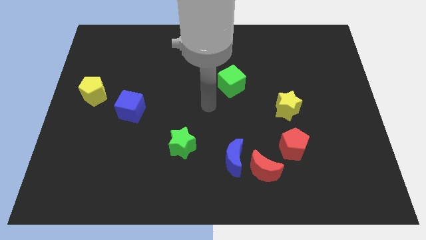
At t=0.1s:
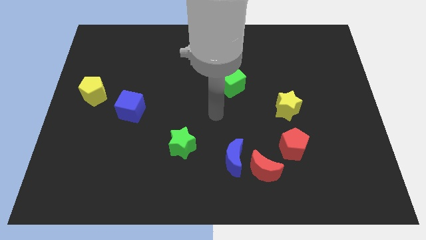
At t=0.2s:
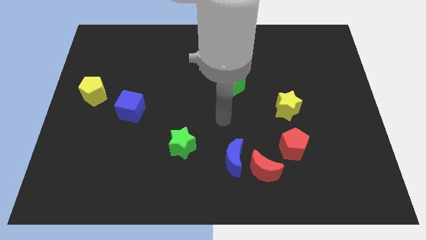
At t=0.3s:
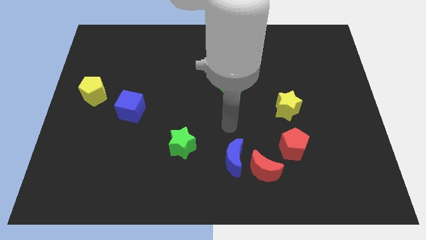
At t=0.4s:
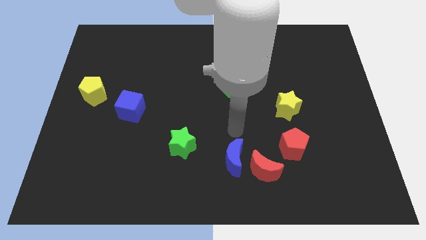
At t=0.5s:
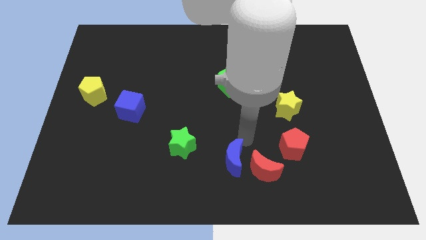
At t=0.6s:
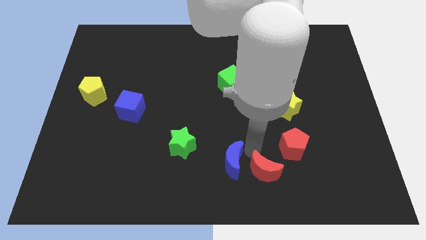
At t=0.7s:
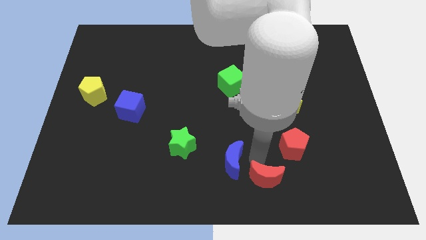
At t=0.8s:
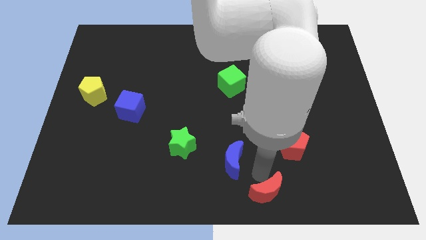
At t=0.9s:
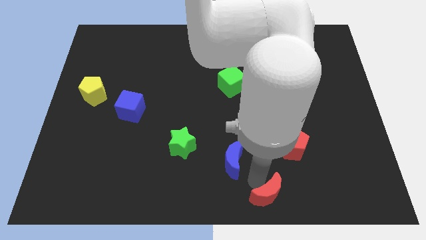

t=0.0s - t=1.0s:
move the blue moon away from the red moon

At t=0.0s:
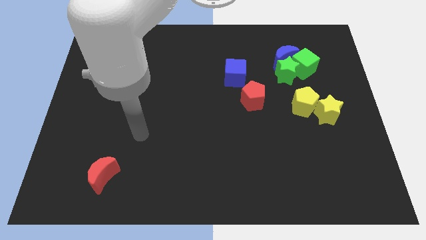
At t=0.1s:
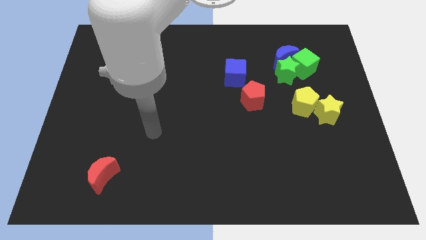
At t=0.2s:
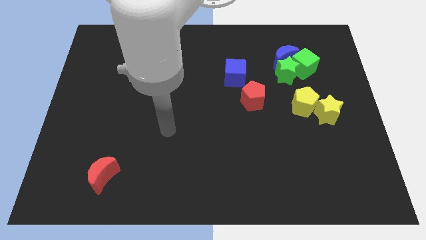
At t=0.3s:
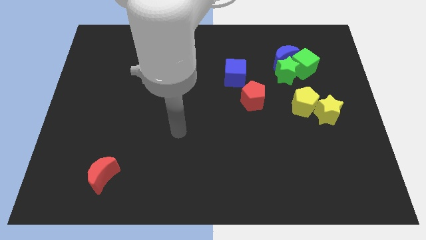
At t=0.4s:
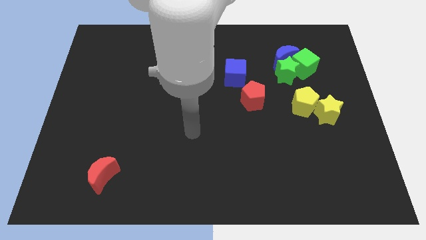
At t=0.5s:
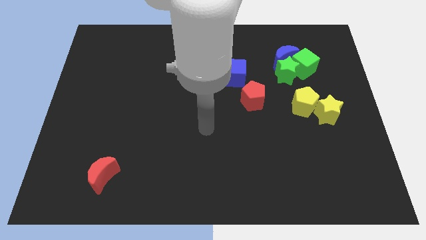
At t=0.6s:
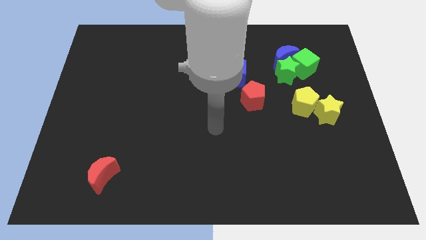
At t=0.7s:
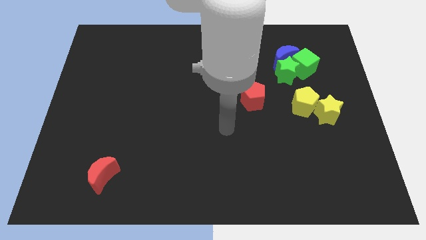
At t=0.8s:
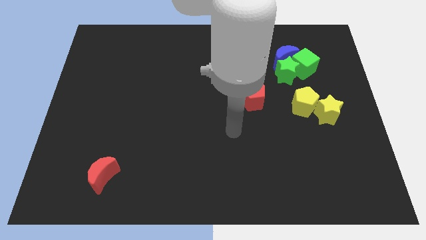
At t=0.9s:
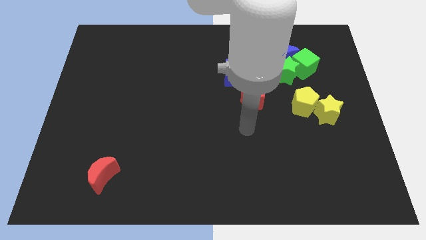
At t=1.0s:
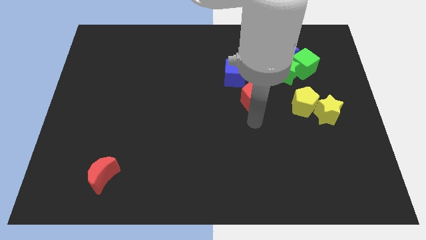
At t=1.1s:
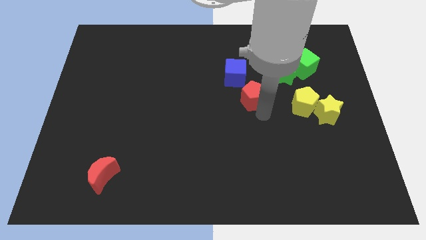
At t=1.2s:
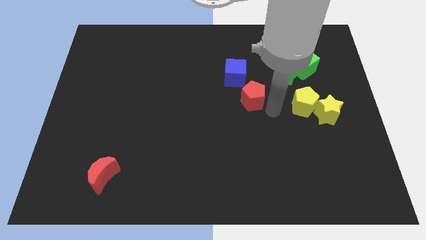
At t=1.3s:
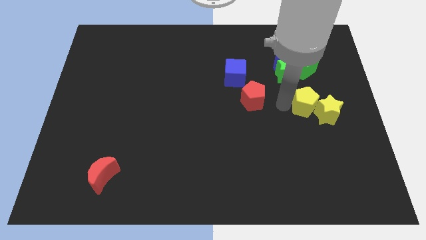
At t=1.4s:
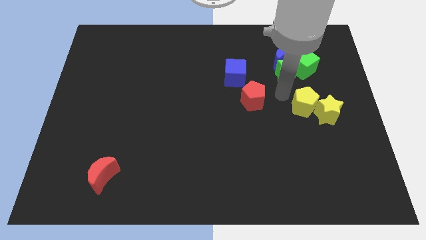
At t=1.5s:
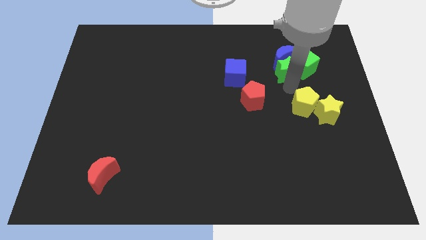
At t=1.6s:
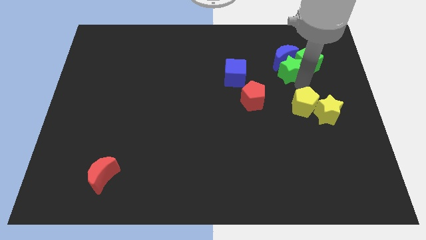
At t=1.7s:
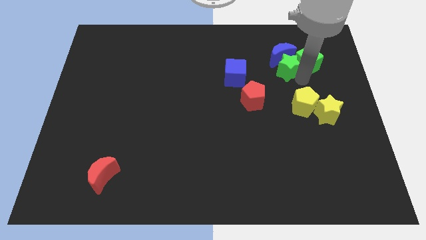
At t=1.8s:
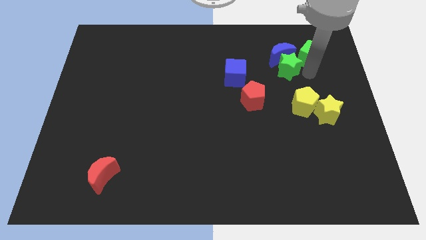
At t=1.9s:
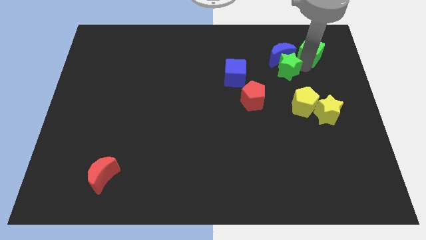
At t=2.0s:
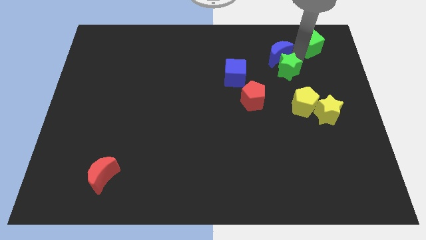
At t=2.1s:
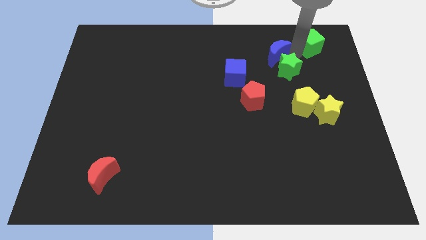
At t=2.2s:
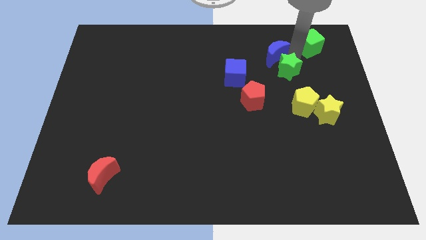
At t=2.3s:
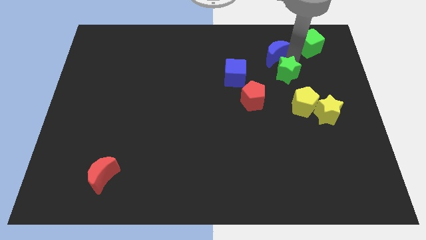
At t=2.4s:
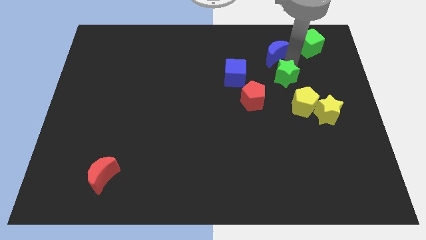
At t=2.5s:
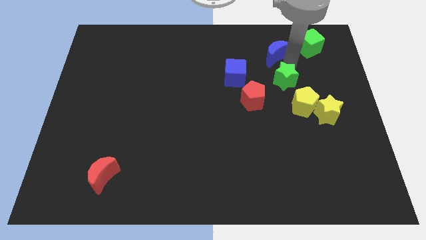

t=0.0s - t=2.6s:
pull the green star apart from the blue moon and green cube

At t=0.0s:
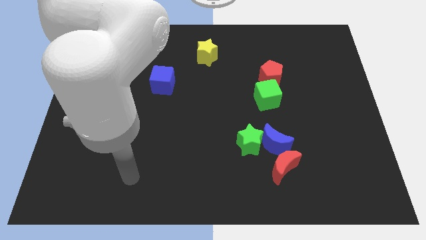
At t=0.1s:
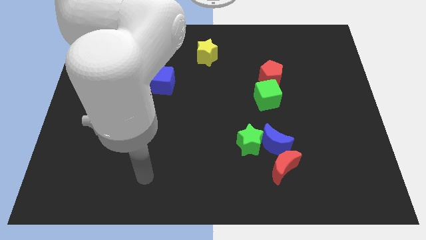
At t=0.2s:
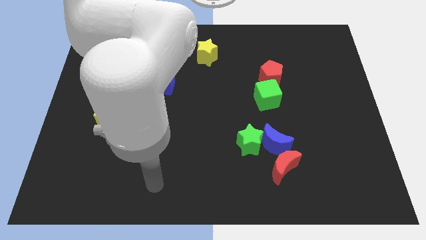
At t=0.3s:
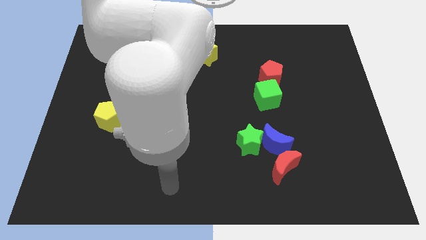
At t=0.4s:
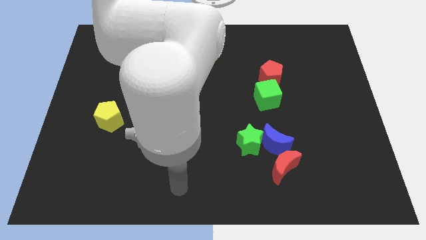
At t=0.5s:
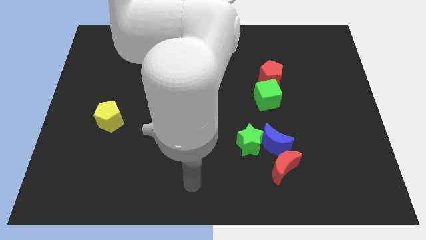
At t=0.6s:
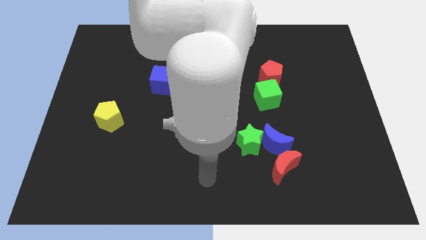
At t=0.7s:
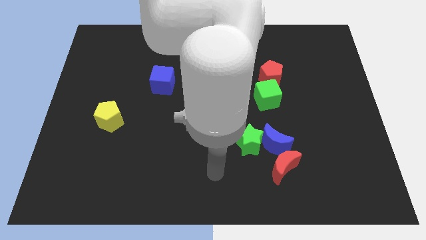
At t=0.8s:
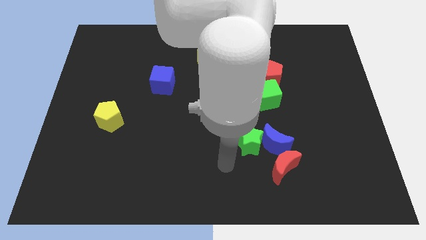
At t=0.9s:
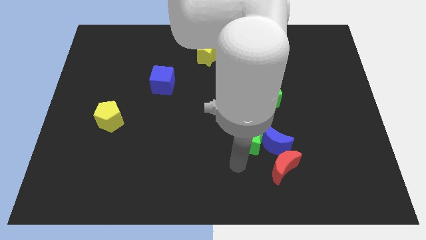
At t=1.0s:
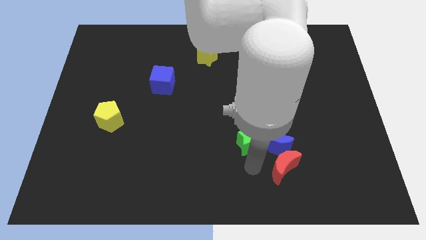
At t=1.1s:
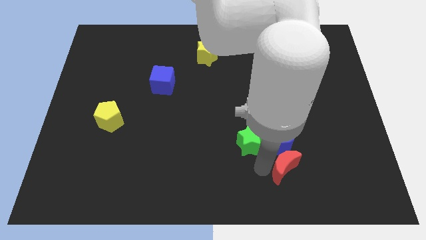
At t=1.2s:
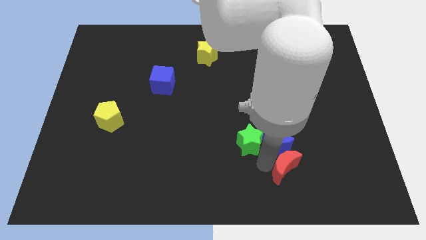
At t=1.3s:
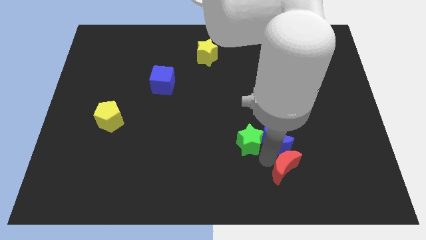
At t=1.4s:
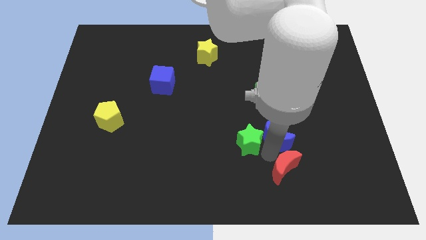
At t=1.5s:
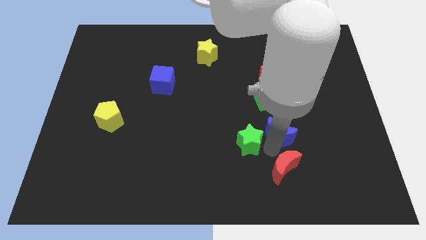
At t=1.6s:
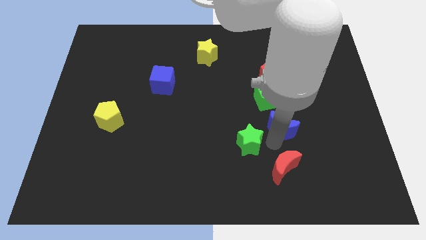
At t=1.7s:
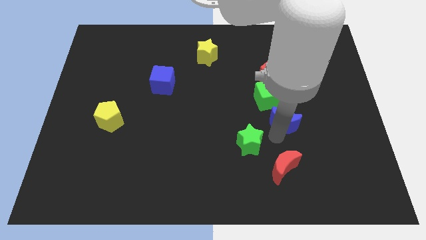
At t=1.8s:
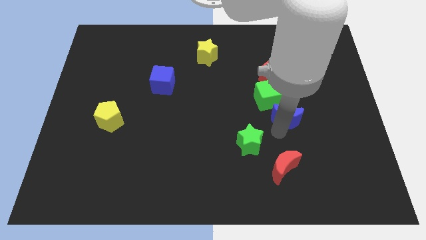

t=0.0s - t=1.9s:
separate the blue moon from the green star and red moon

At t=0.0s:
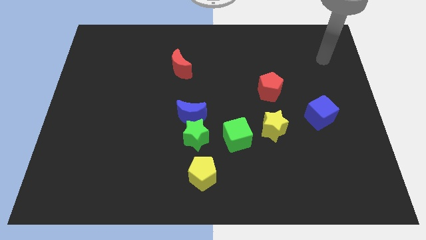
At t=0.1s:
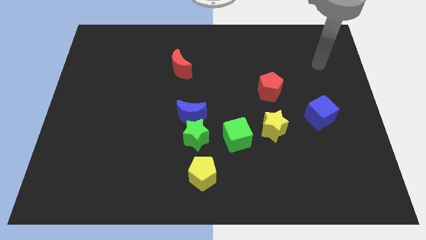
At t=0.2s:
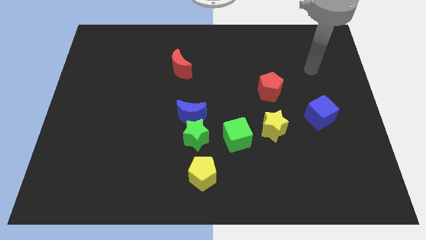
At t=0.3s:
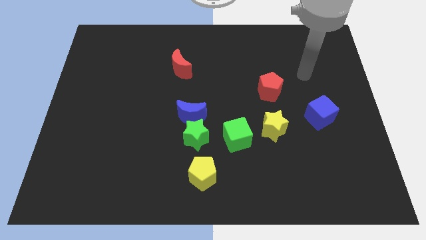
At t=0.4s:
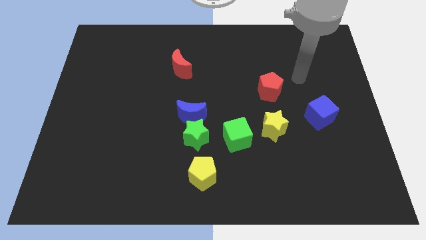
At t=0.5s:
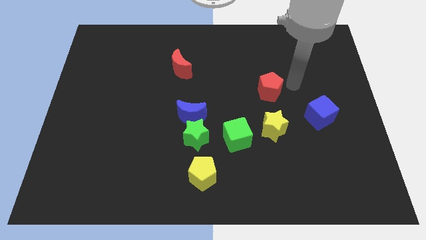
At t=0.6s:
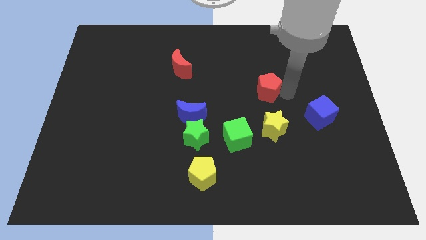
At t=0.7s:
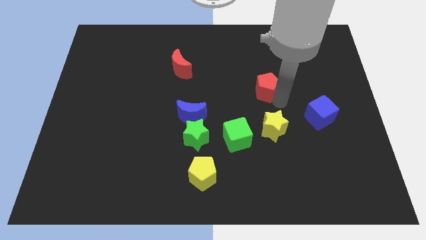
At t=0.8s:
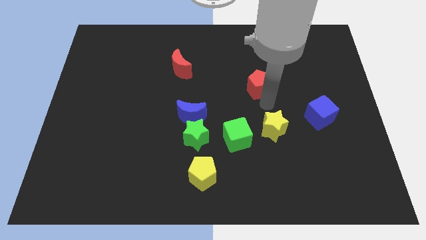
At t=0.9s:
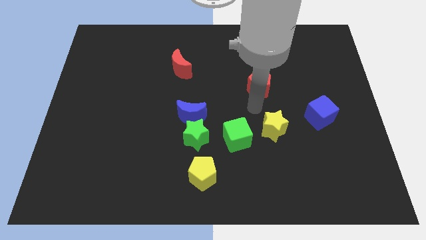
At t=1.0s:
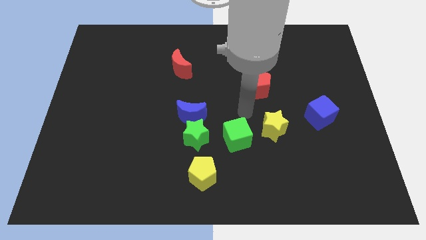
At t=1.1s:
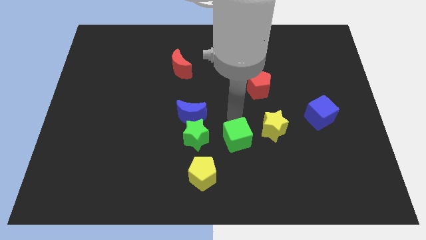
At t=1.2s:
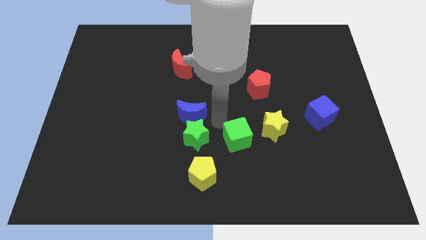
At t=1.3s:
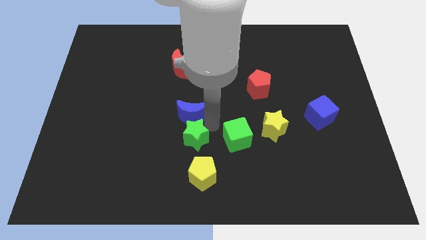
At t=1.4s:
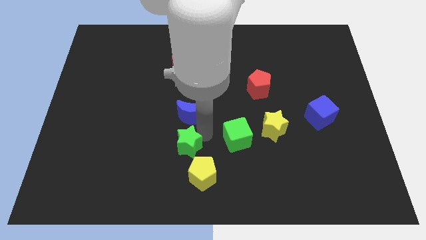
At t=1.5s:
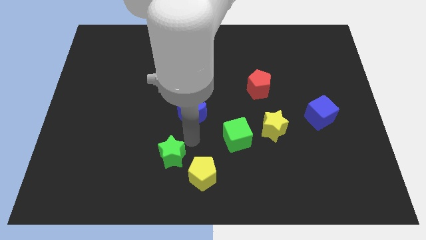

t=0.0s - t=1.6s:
move the blue moon away from the green star

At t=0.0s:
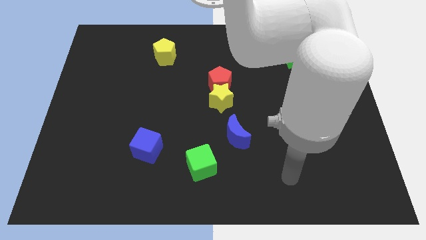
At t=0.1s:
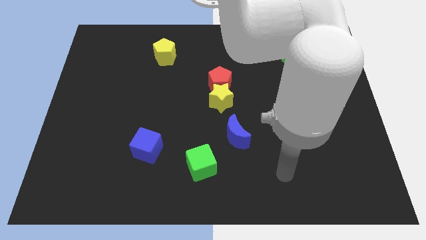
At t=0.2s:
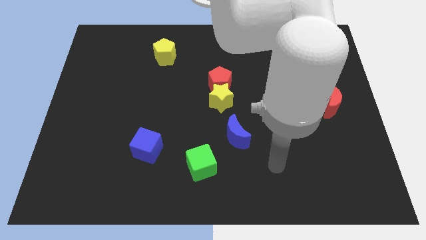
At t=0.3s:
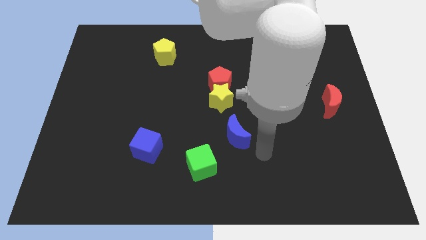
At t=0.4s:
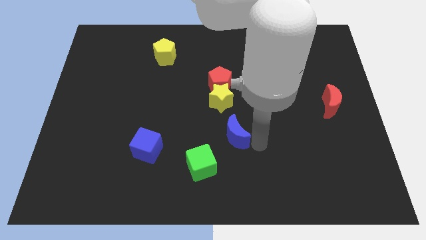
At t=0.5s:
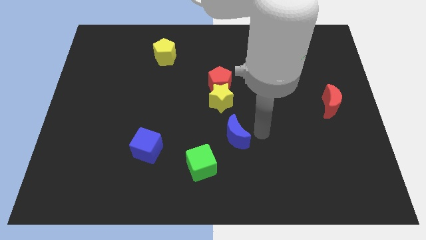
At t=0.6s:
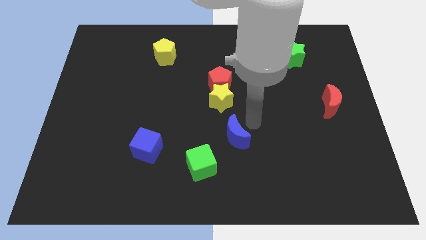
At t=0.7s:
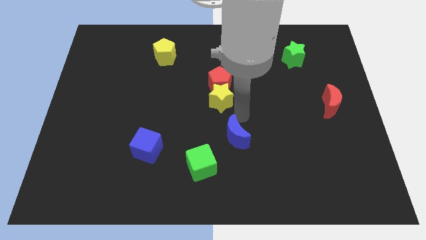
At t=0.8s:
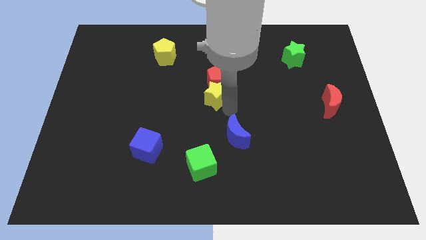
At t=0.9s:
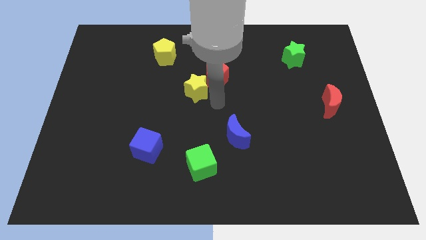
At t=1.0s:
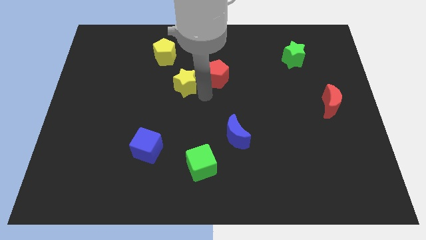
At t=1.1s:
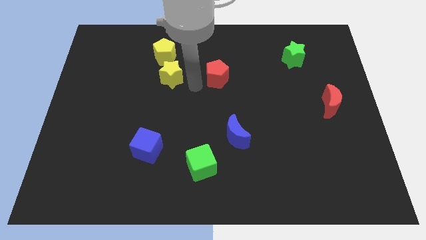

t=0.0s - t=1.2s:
separate the red pentagon from the yellow star

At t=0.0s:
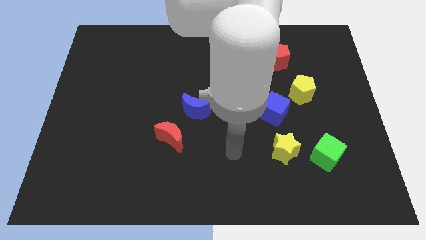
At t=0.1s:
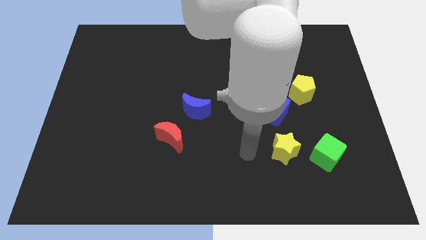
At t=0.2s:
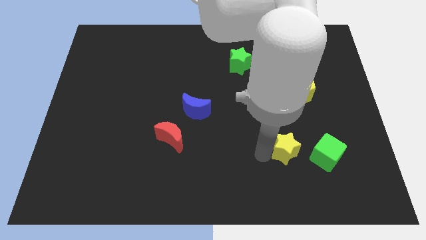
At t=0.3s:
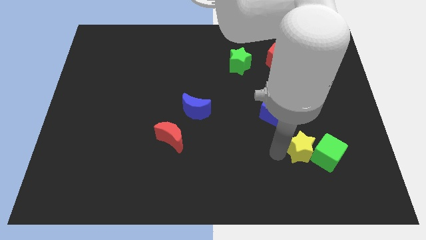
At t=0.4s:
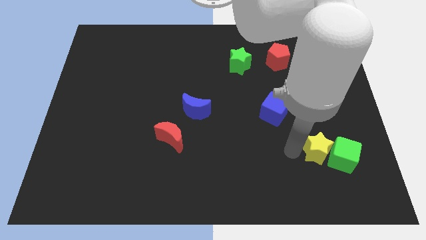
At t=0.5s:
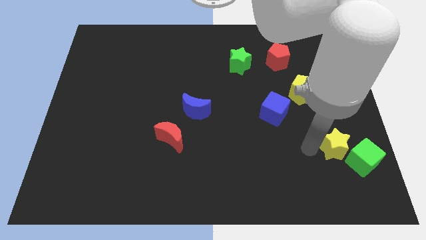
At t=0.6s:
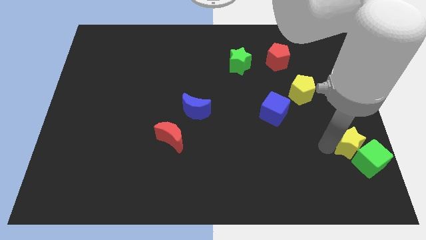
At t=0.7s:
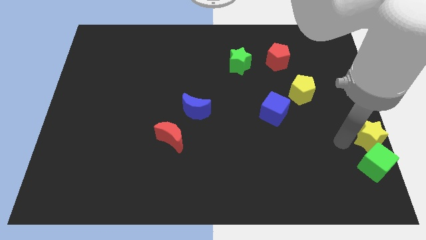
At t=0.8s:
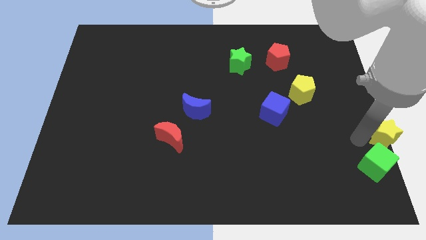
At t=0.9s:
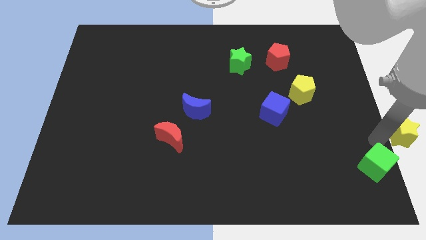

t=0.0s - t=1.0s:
move the green cube away from the yellow star
